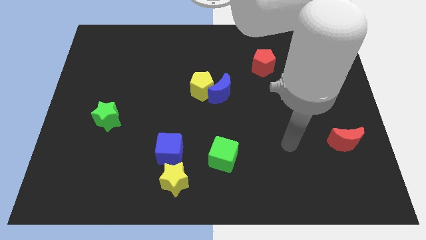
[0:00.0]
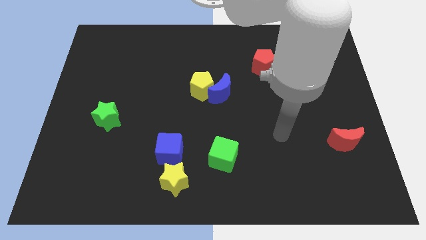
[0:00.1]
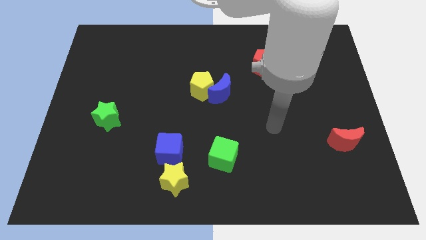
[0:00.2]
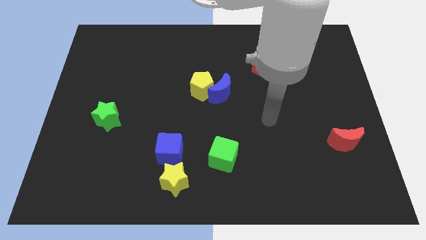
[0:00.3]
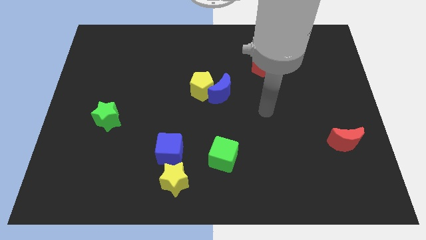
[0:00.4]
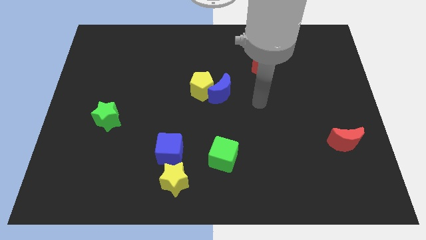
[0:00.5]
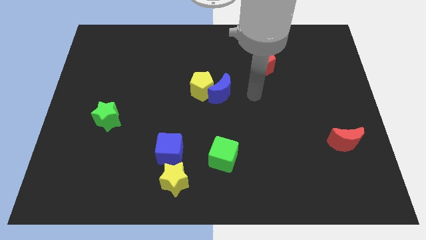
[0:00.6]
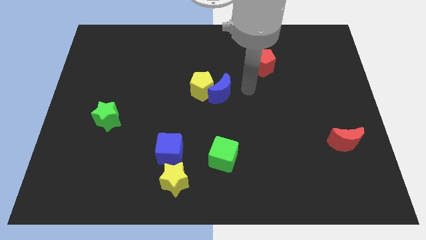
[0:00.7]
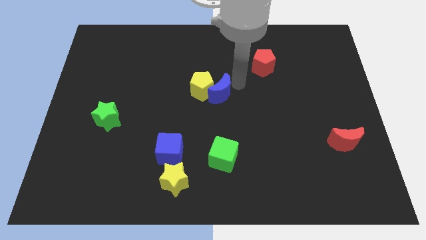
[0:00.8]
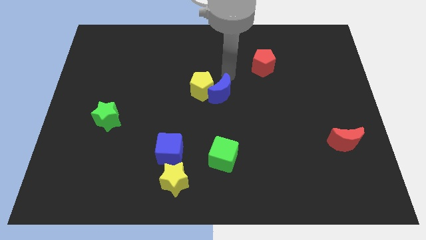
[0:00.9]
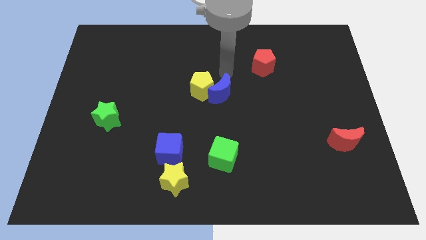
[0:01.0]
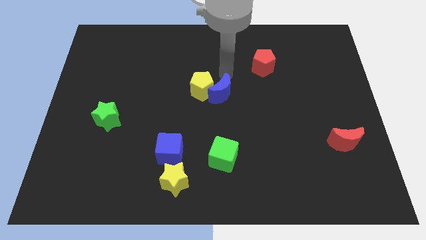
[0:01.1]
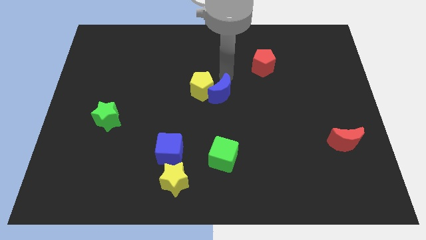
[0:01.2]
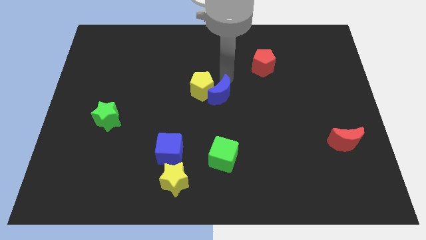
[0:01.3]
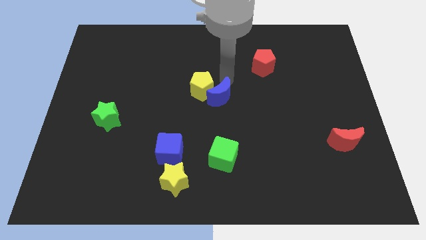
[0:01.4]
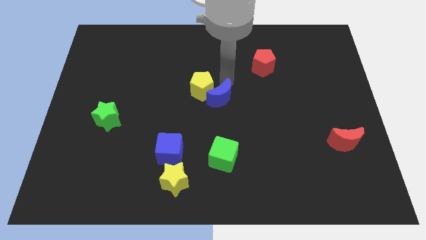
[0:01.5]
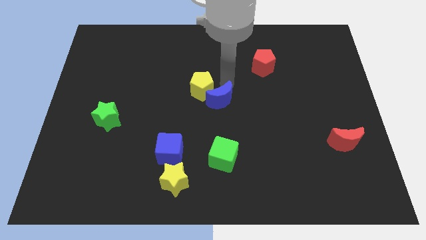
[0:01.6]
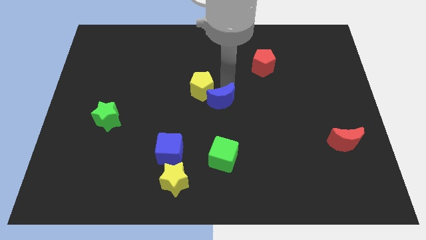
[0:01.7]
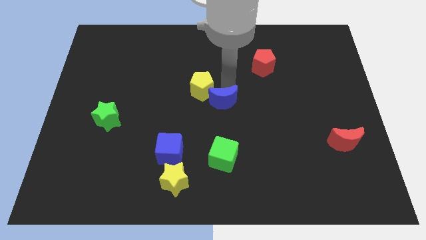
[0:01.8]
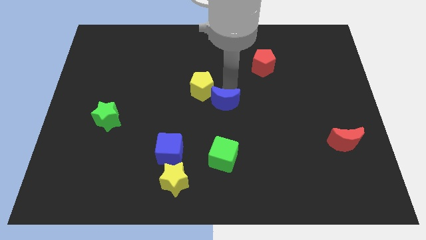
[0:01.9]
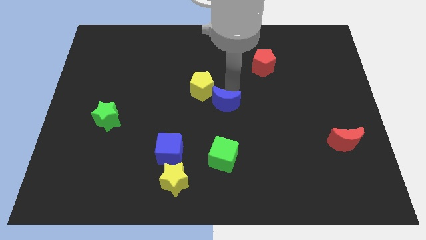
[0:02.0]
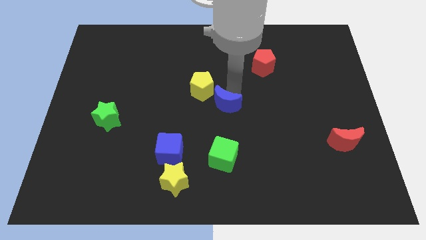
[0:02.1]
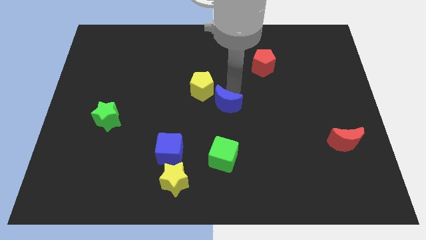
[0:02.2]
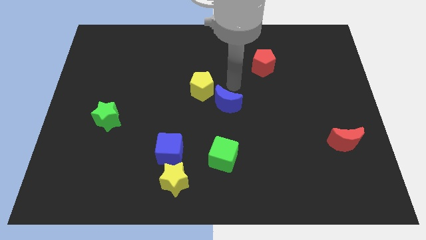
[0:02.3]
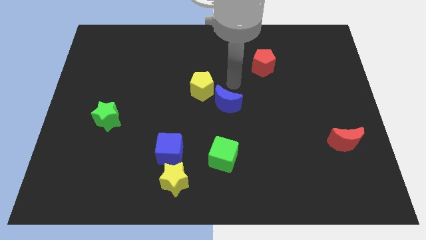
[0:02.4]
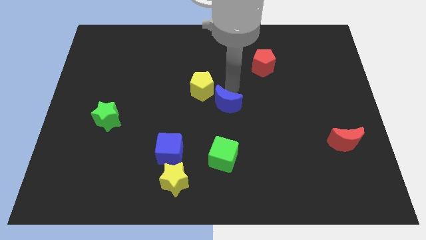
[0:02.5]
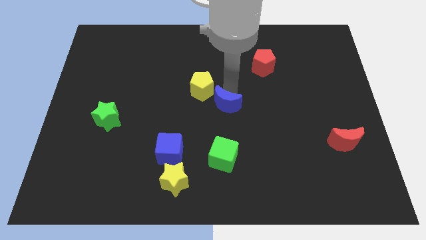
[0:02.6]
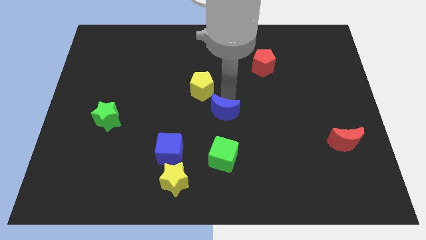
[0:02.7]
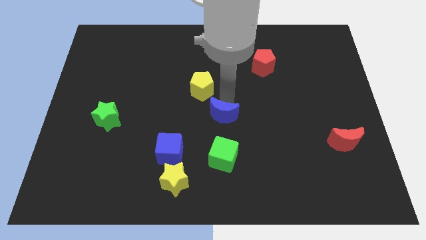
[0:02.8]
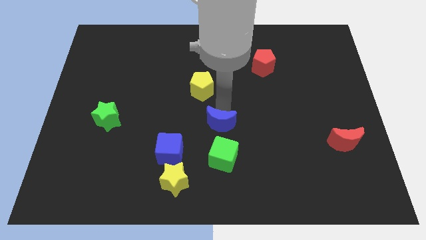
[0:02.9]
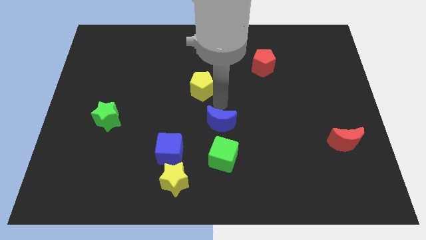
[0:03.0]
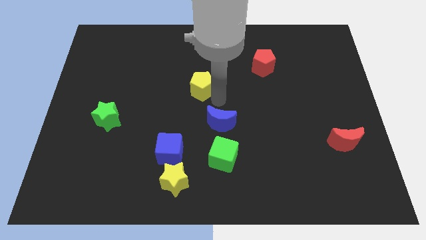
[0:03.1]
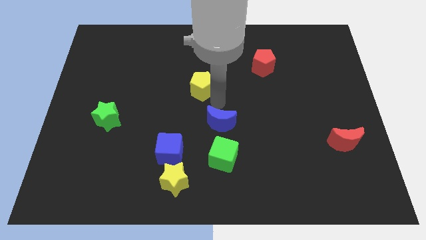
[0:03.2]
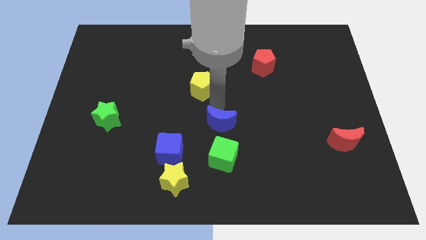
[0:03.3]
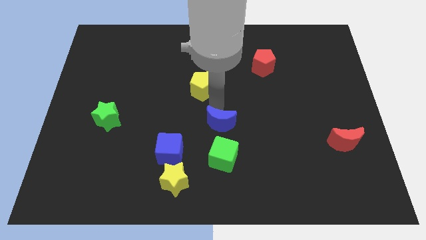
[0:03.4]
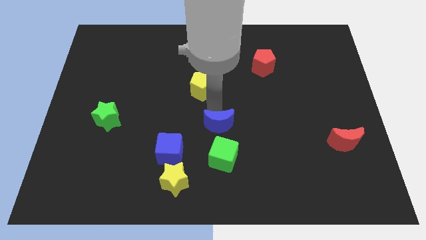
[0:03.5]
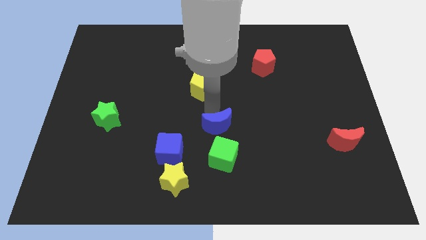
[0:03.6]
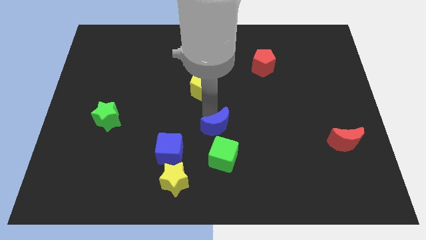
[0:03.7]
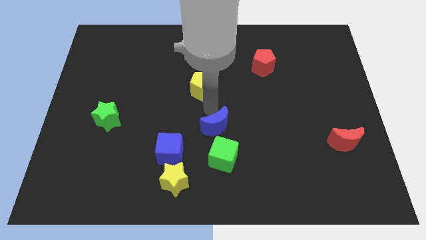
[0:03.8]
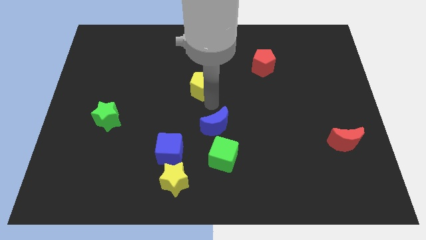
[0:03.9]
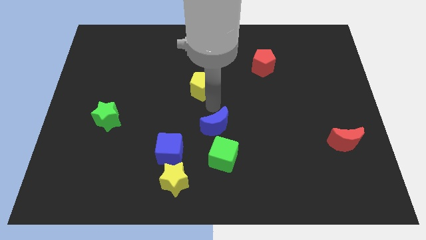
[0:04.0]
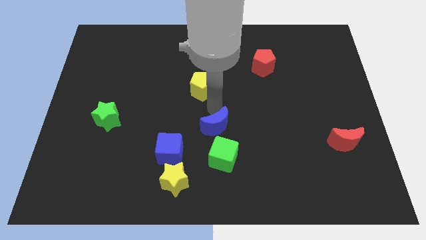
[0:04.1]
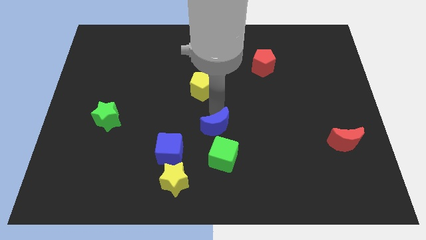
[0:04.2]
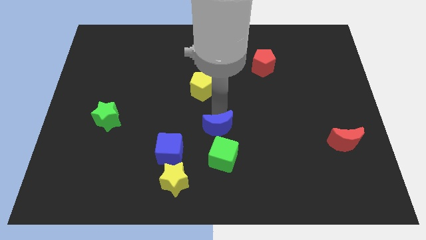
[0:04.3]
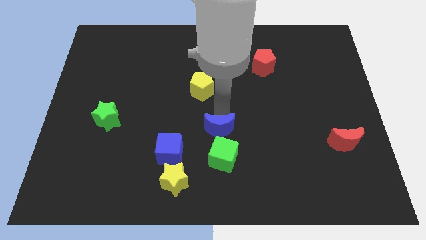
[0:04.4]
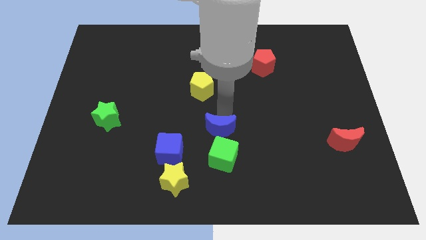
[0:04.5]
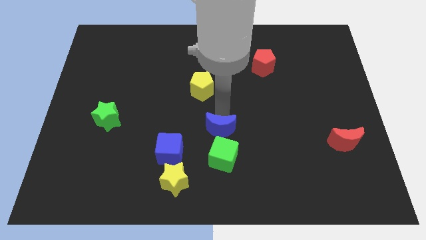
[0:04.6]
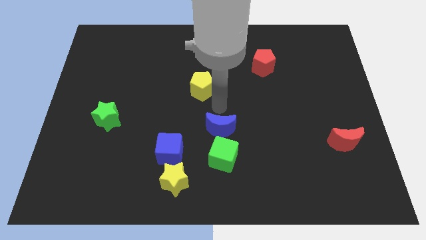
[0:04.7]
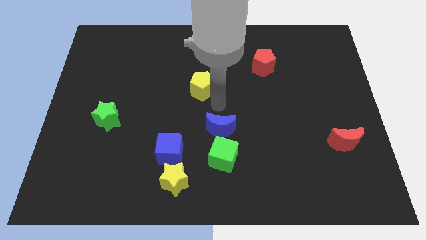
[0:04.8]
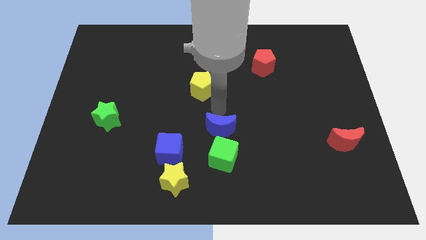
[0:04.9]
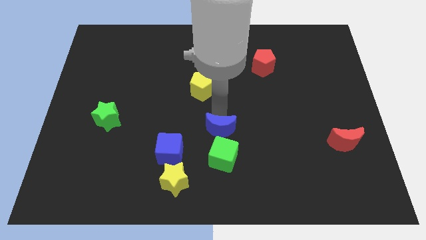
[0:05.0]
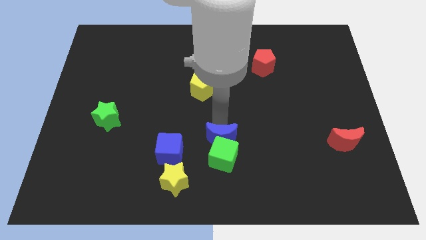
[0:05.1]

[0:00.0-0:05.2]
move the blue moon next to the green cube

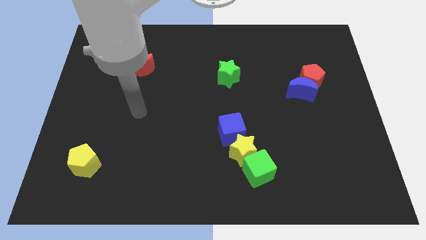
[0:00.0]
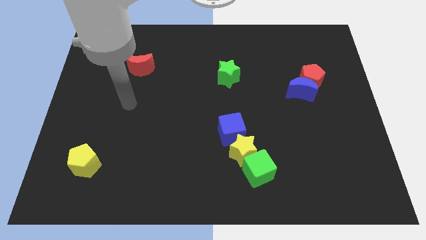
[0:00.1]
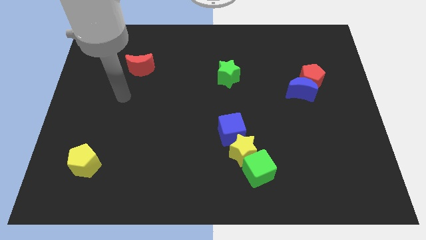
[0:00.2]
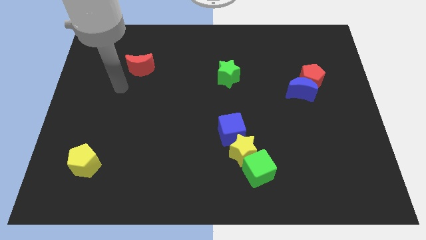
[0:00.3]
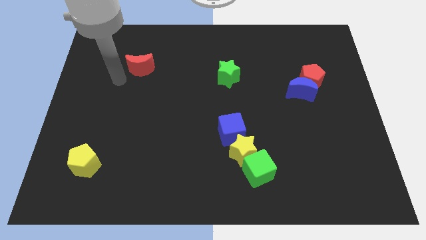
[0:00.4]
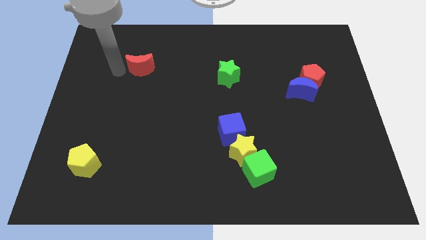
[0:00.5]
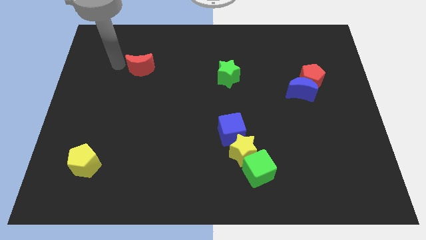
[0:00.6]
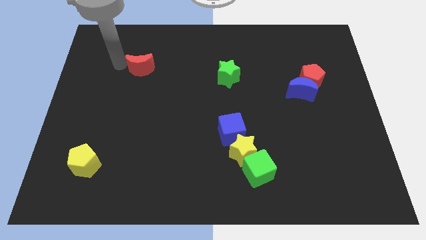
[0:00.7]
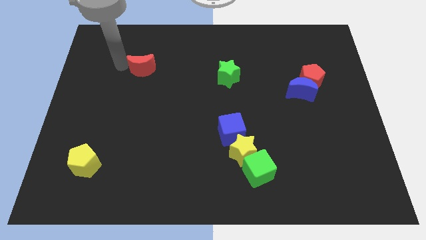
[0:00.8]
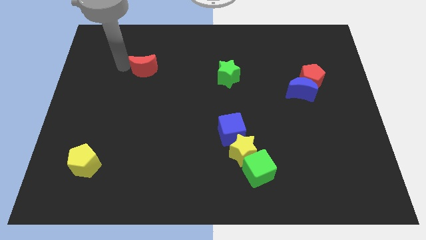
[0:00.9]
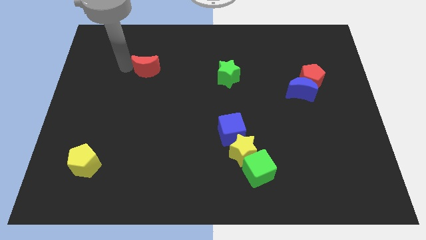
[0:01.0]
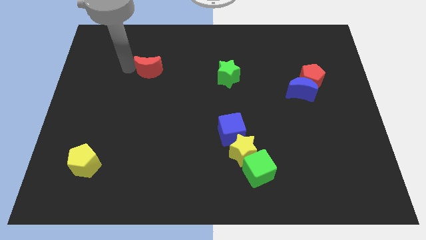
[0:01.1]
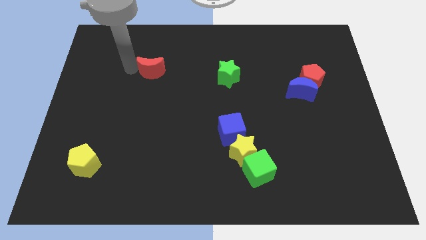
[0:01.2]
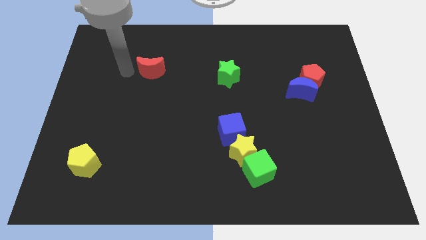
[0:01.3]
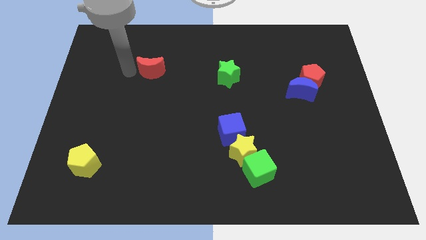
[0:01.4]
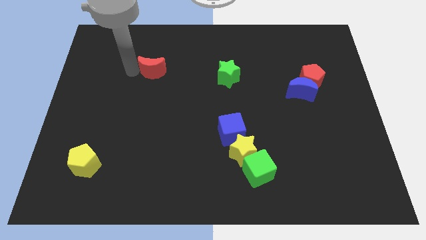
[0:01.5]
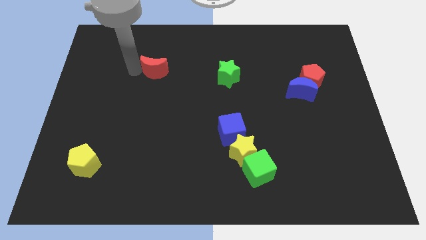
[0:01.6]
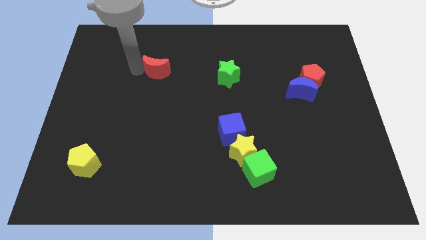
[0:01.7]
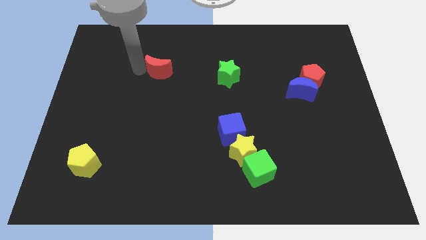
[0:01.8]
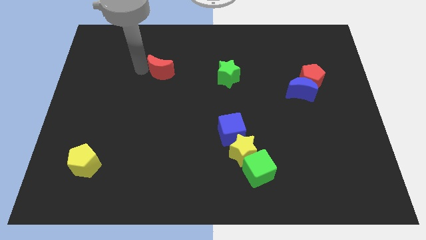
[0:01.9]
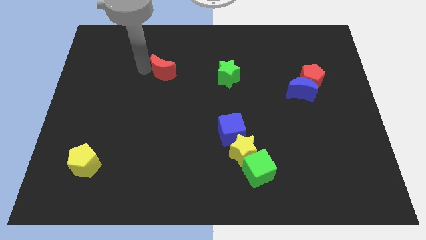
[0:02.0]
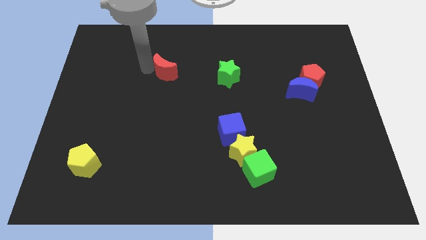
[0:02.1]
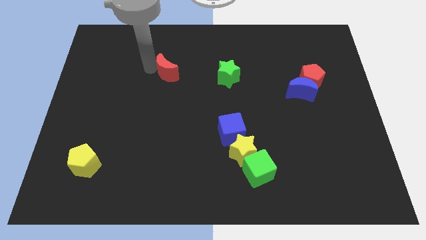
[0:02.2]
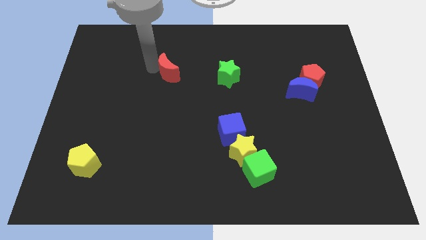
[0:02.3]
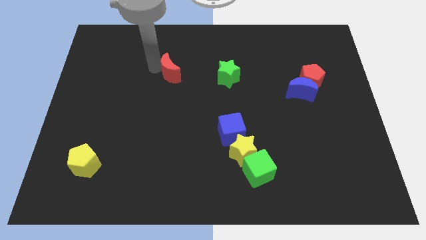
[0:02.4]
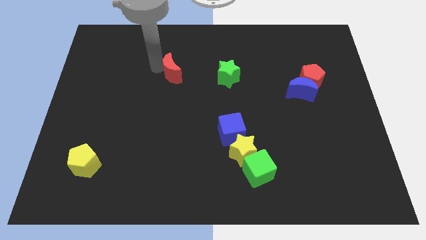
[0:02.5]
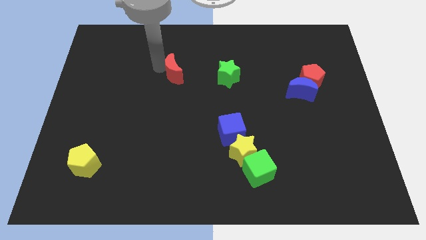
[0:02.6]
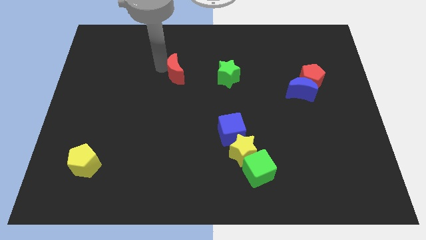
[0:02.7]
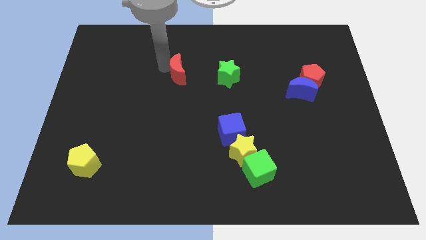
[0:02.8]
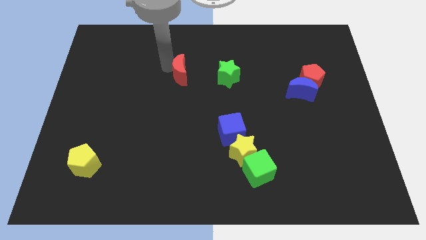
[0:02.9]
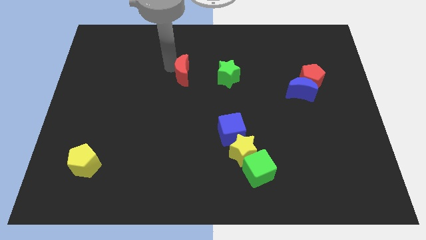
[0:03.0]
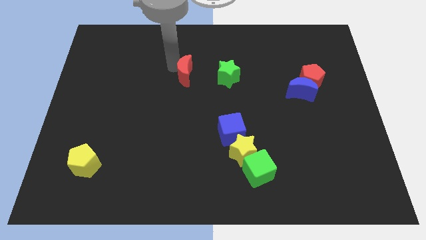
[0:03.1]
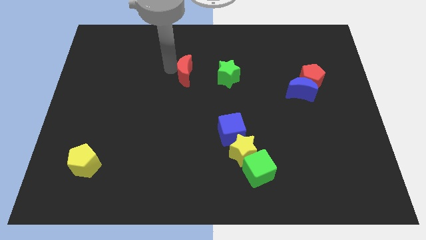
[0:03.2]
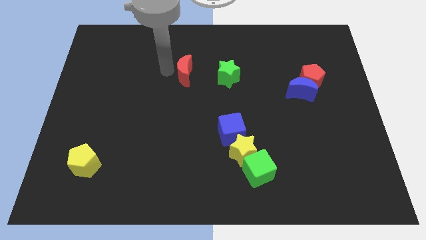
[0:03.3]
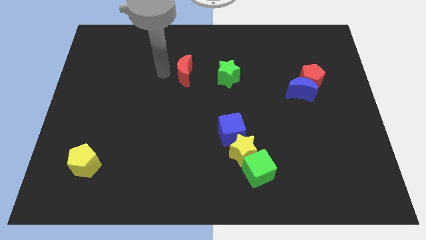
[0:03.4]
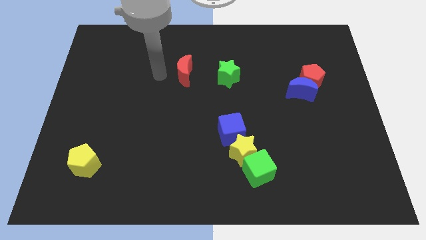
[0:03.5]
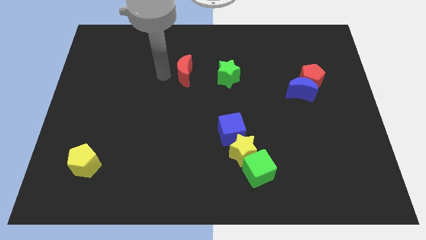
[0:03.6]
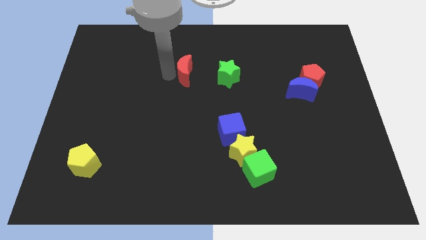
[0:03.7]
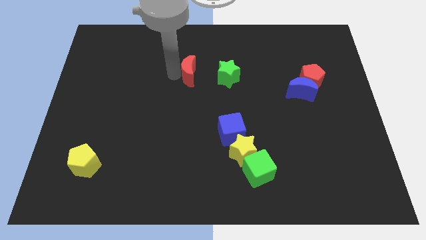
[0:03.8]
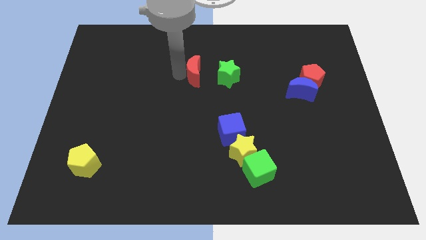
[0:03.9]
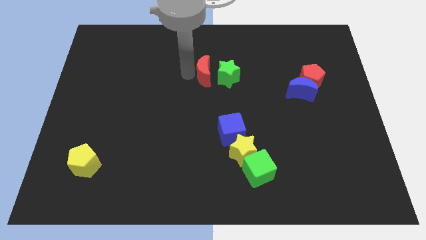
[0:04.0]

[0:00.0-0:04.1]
put the red moon next to the green star
